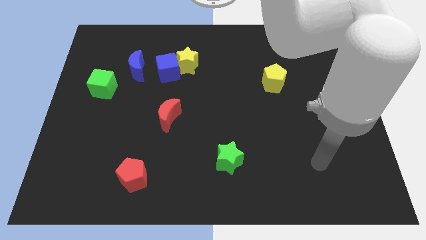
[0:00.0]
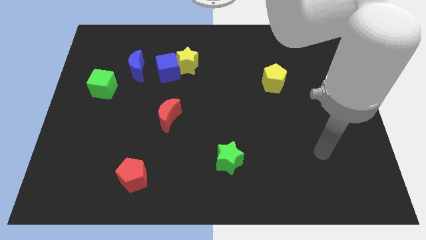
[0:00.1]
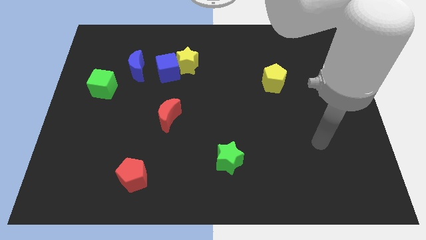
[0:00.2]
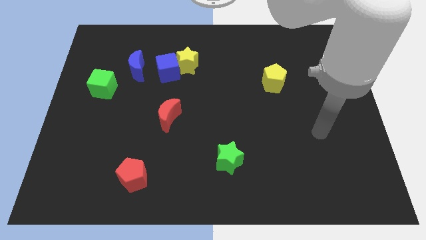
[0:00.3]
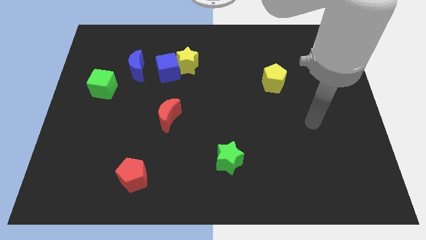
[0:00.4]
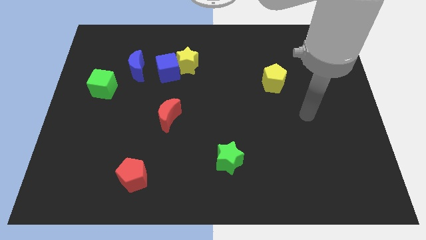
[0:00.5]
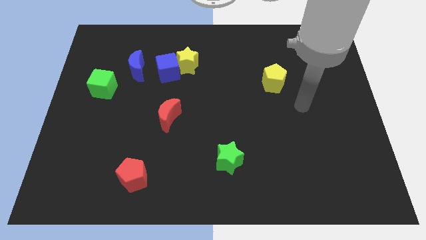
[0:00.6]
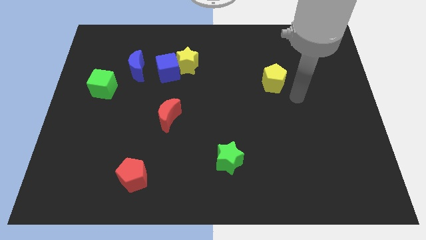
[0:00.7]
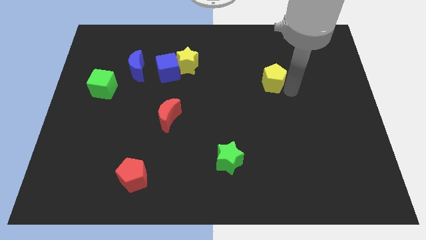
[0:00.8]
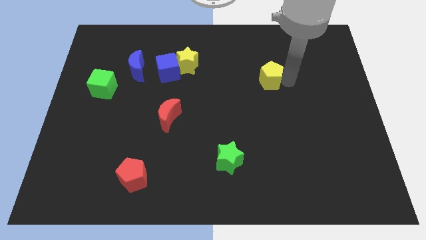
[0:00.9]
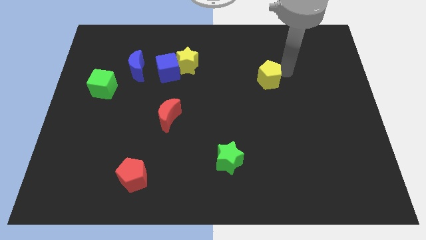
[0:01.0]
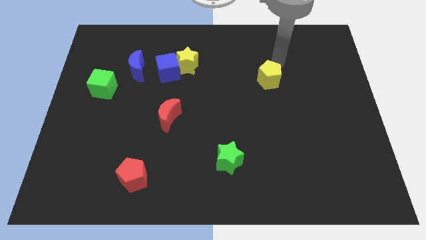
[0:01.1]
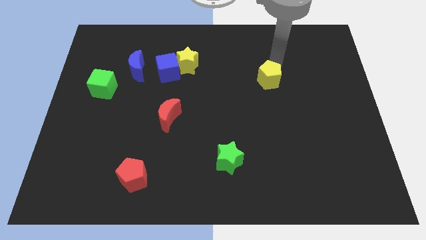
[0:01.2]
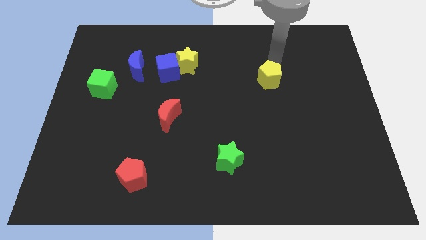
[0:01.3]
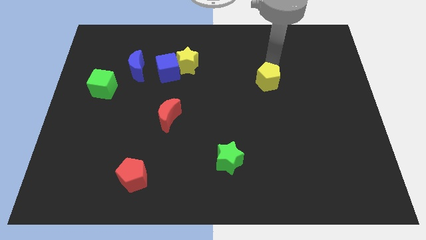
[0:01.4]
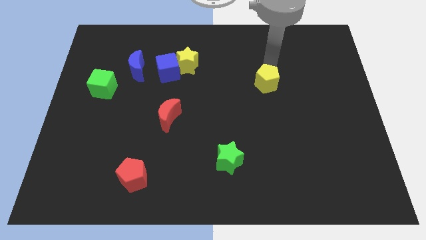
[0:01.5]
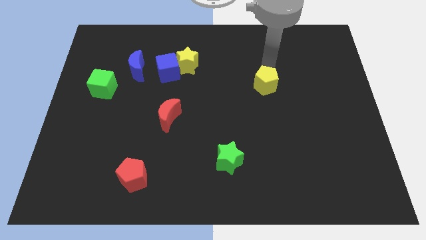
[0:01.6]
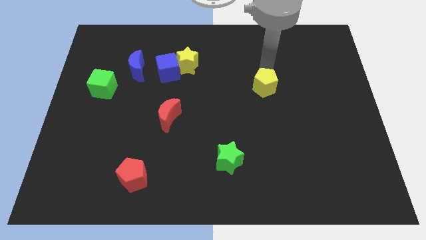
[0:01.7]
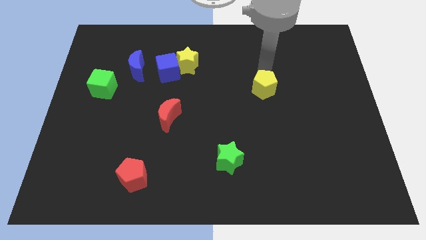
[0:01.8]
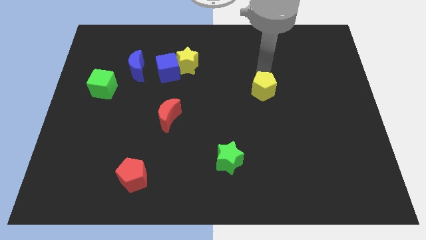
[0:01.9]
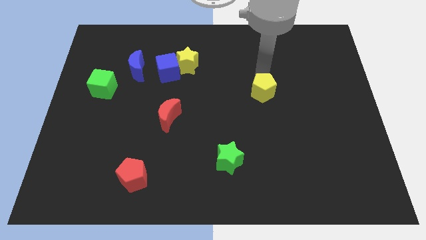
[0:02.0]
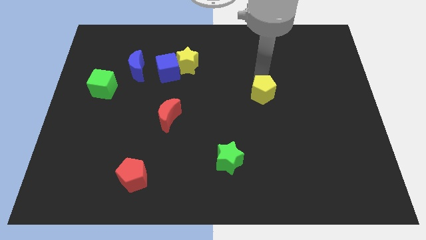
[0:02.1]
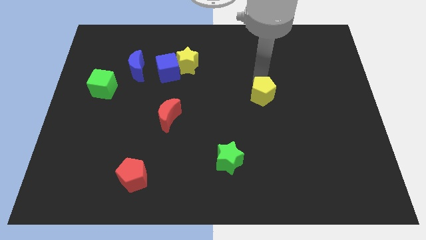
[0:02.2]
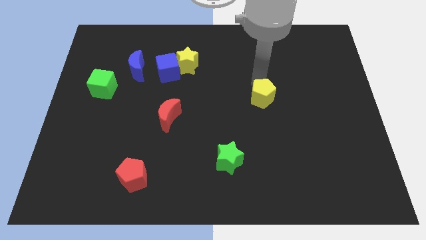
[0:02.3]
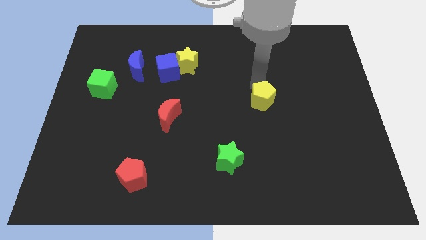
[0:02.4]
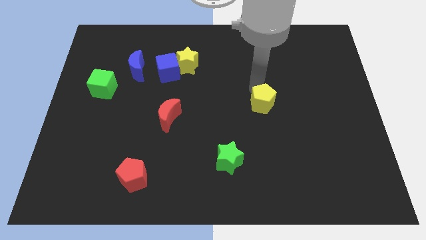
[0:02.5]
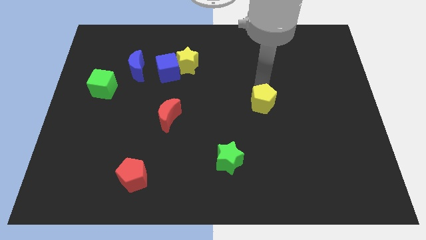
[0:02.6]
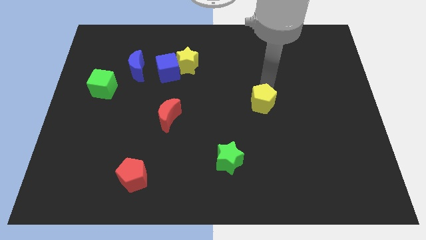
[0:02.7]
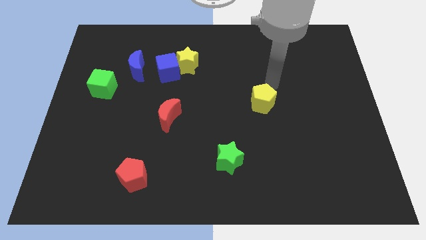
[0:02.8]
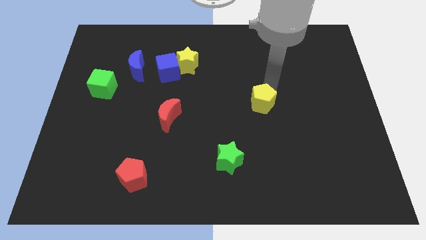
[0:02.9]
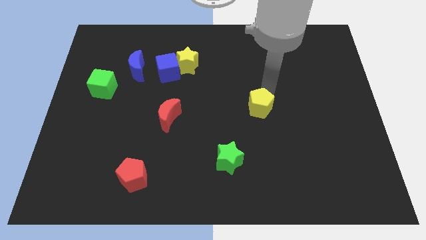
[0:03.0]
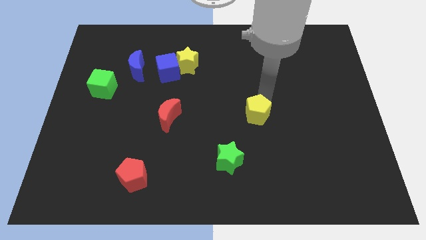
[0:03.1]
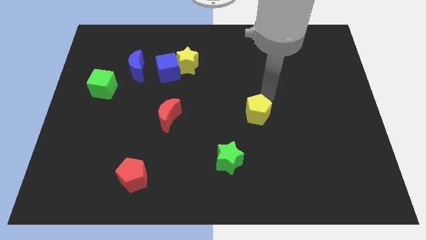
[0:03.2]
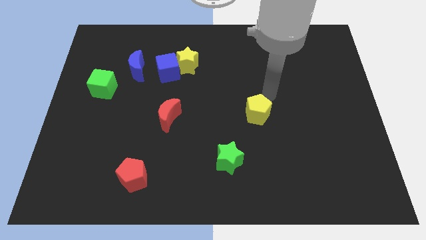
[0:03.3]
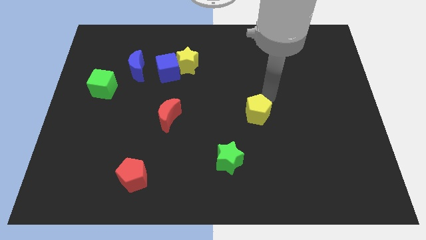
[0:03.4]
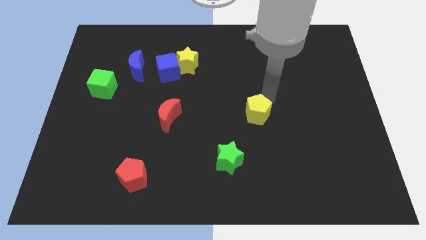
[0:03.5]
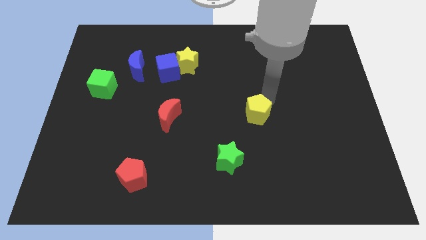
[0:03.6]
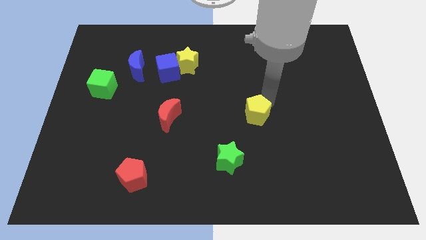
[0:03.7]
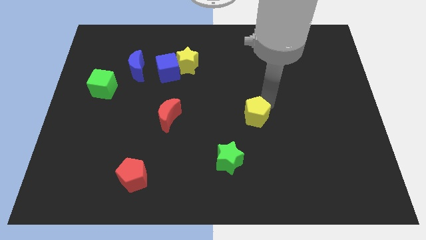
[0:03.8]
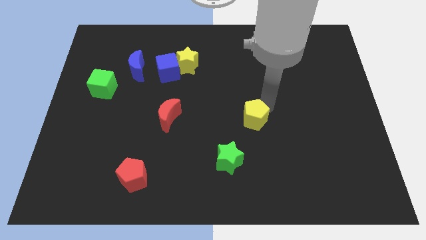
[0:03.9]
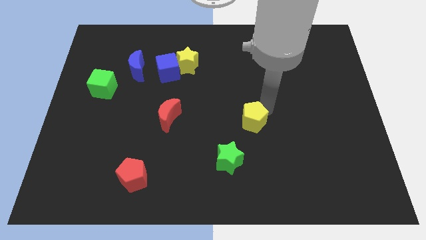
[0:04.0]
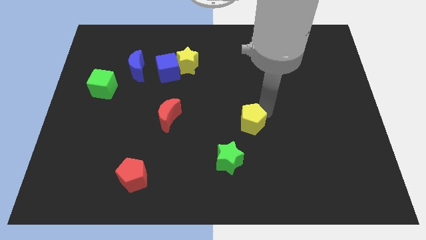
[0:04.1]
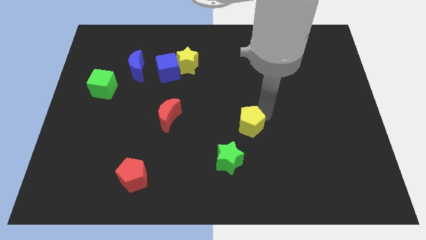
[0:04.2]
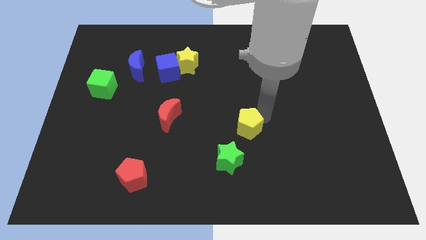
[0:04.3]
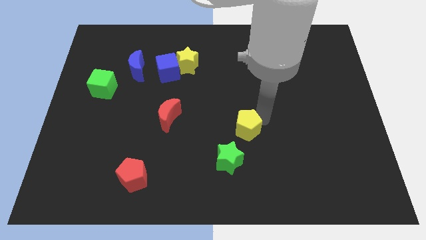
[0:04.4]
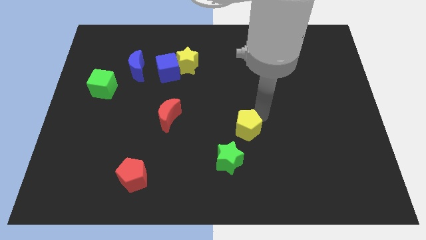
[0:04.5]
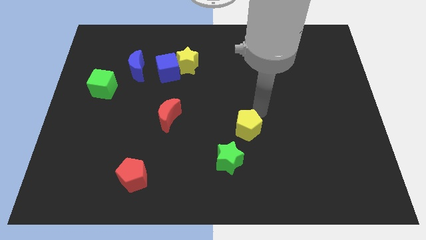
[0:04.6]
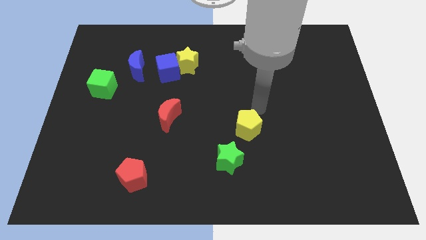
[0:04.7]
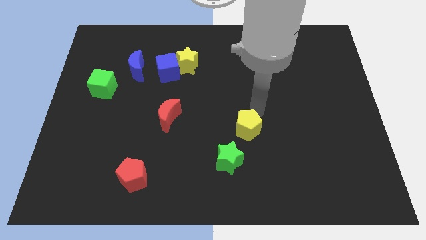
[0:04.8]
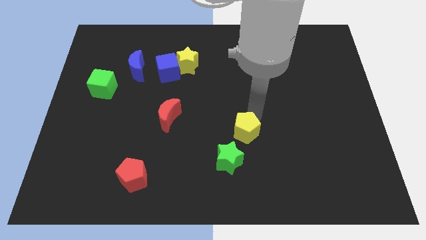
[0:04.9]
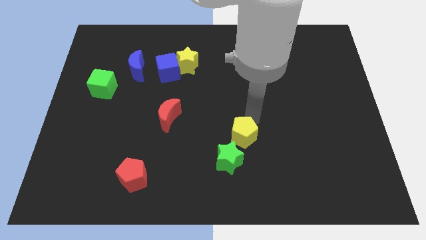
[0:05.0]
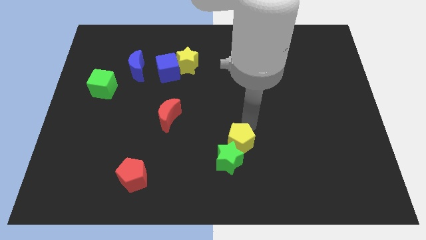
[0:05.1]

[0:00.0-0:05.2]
push the yellow pentagon close to the green star

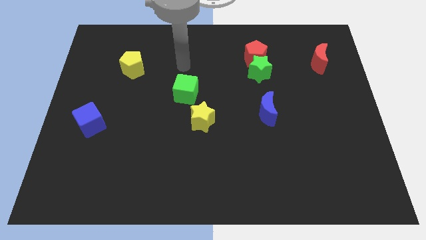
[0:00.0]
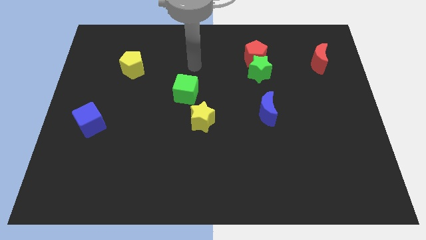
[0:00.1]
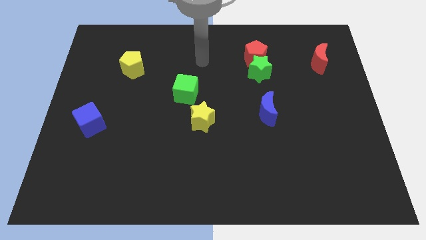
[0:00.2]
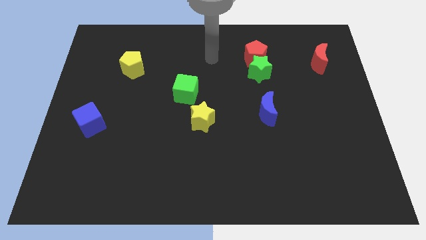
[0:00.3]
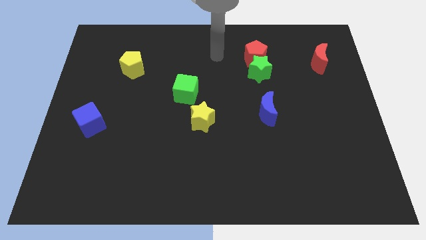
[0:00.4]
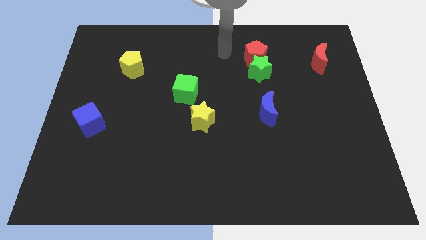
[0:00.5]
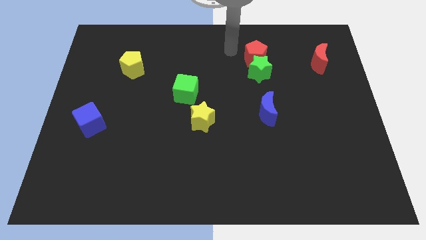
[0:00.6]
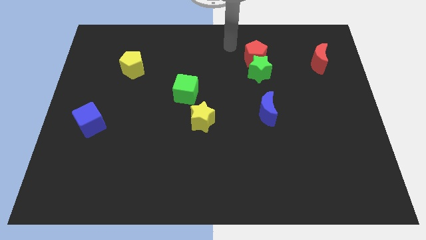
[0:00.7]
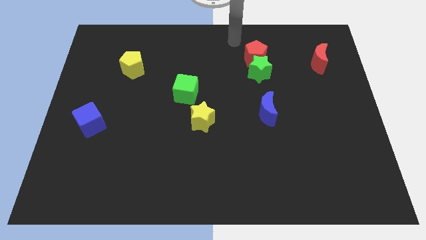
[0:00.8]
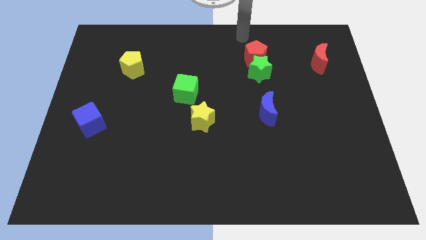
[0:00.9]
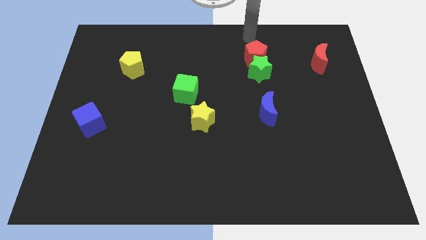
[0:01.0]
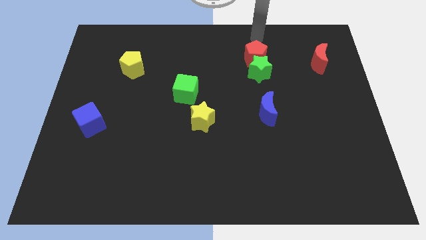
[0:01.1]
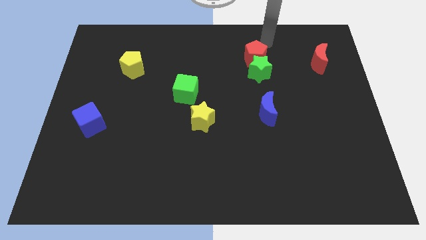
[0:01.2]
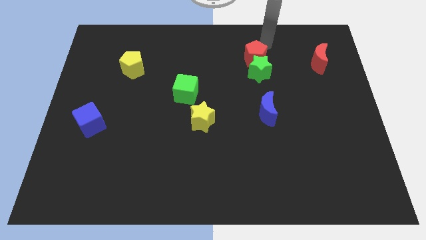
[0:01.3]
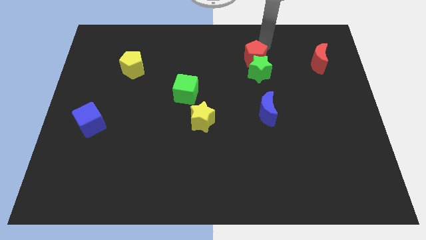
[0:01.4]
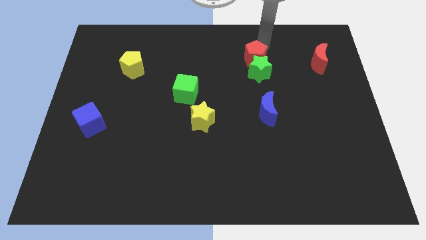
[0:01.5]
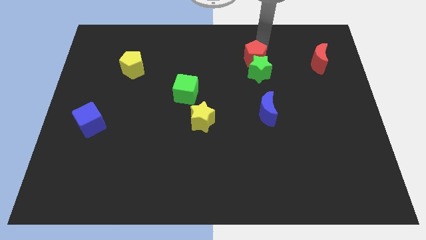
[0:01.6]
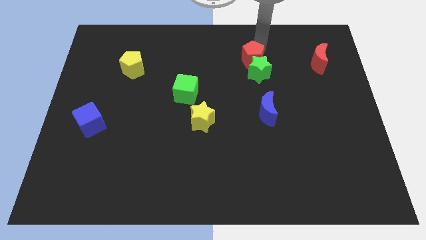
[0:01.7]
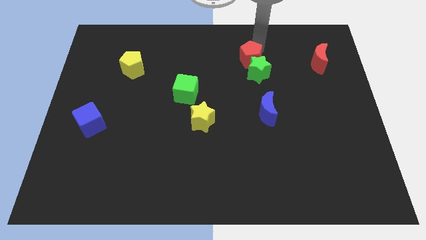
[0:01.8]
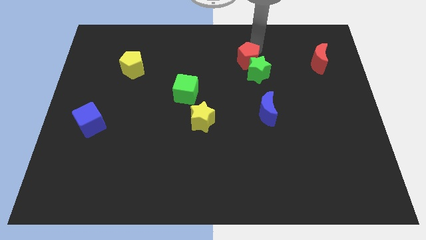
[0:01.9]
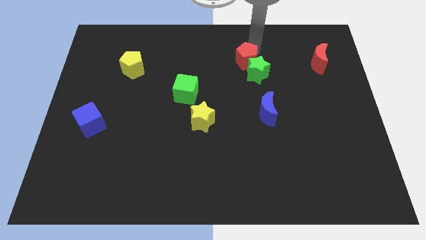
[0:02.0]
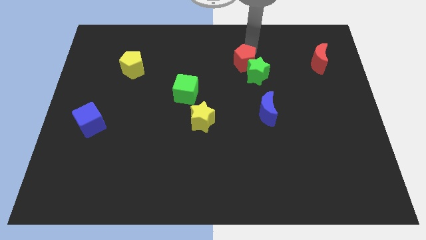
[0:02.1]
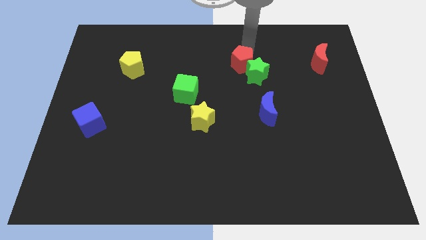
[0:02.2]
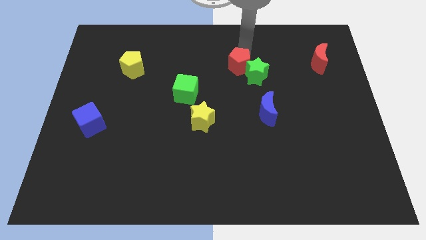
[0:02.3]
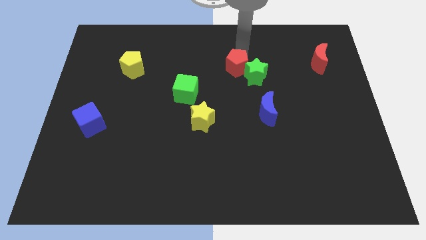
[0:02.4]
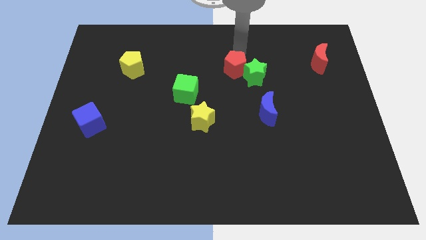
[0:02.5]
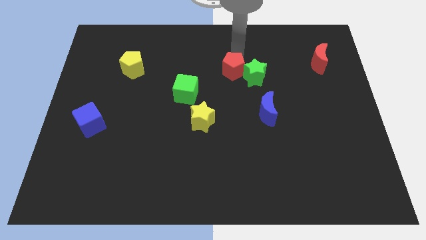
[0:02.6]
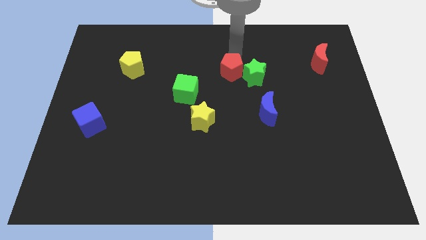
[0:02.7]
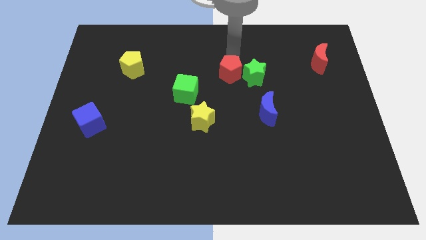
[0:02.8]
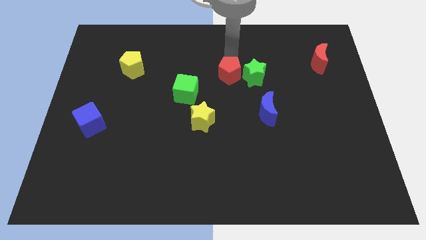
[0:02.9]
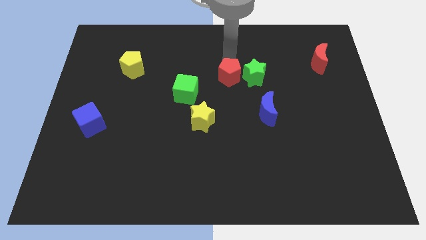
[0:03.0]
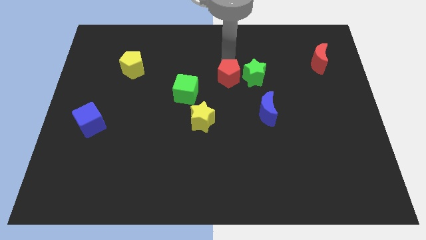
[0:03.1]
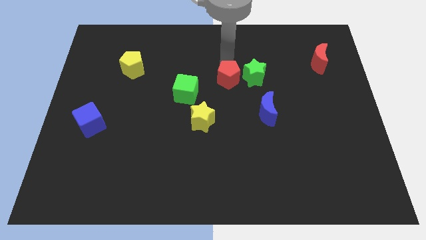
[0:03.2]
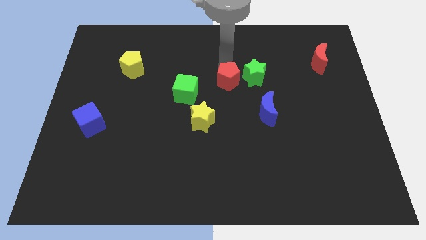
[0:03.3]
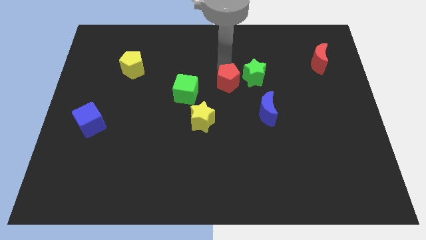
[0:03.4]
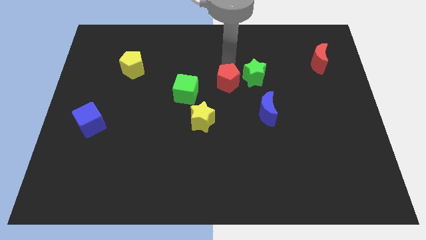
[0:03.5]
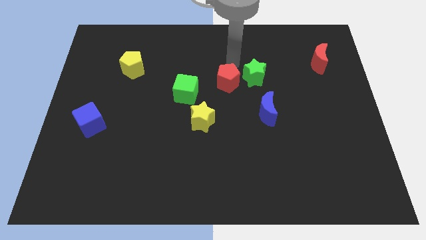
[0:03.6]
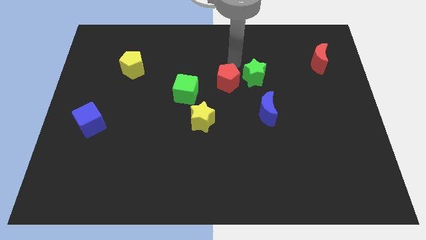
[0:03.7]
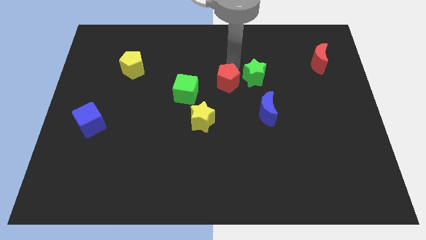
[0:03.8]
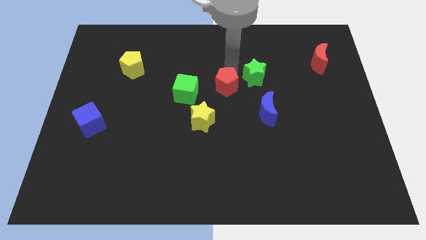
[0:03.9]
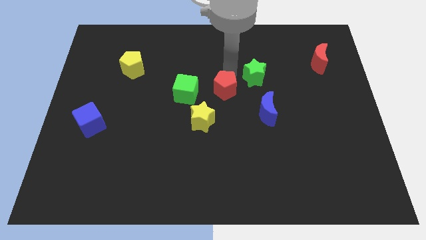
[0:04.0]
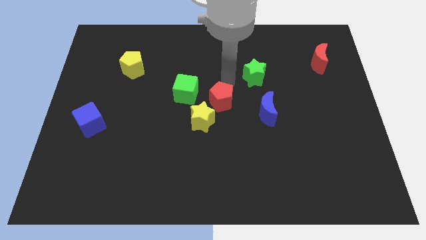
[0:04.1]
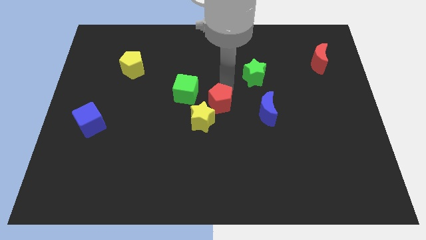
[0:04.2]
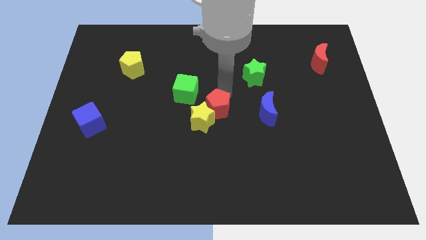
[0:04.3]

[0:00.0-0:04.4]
push the red pentagon towards the yellow star
